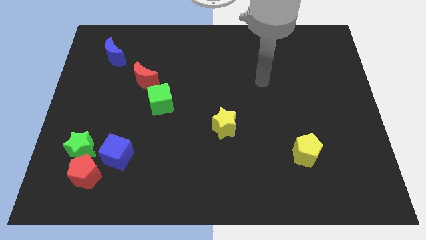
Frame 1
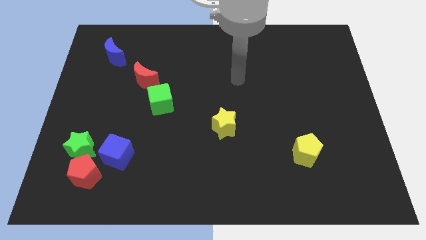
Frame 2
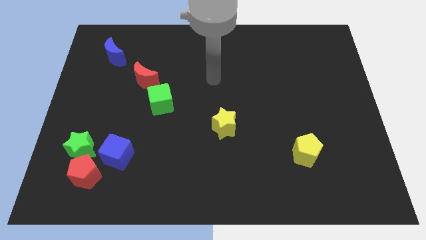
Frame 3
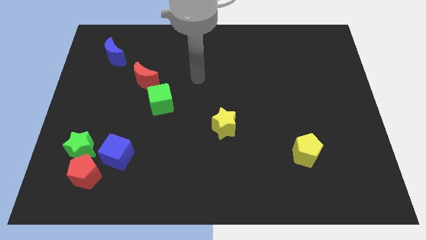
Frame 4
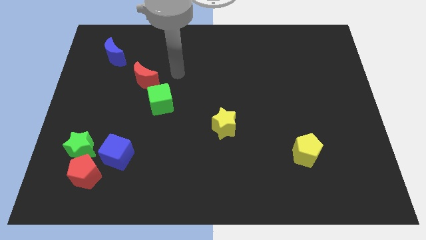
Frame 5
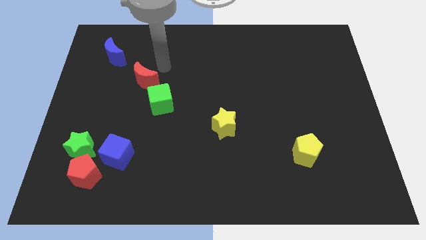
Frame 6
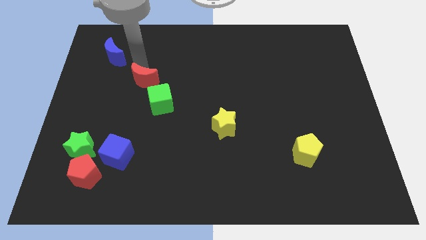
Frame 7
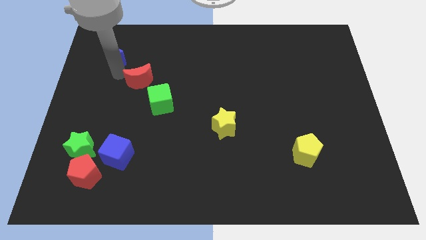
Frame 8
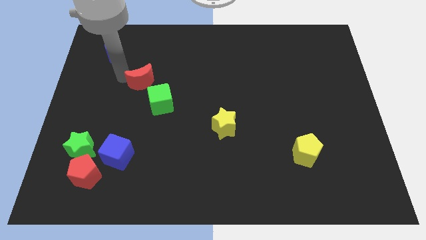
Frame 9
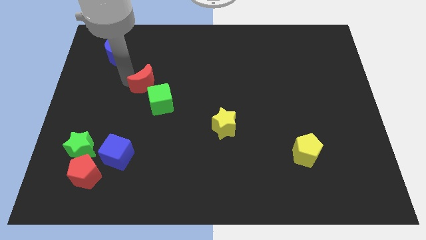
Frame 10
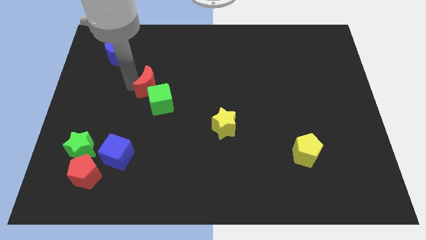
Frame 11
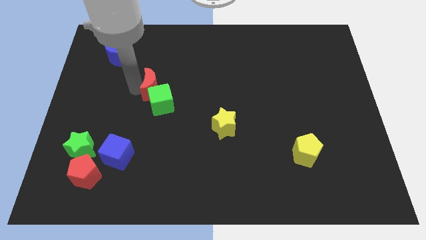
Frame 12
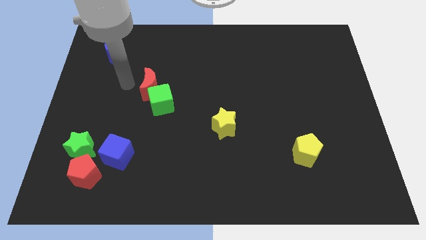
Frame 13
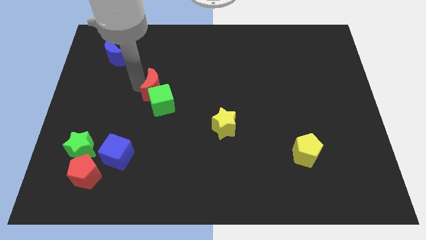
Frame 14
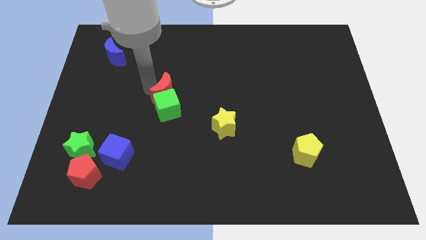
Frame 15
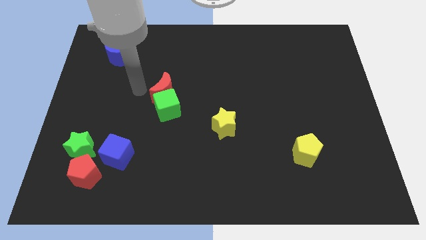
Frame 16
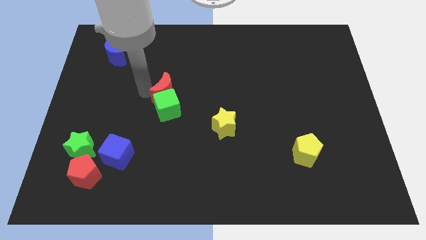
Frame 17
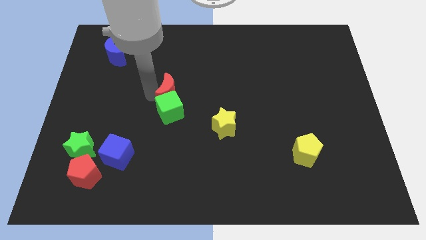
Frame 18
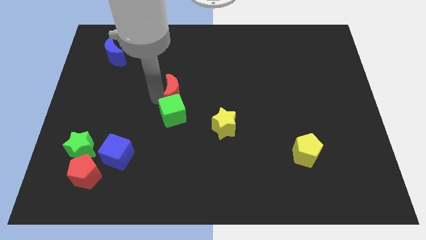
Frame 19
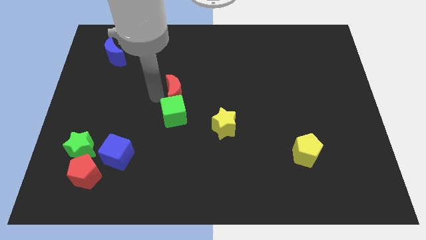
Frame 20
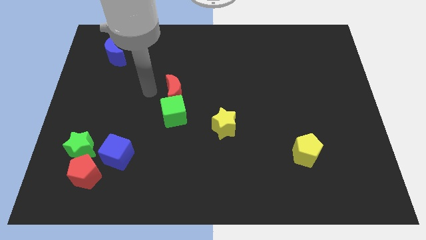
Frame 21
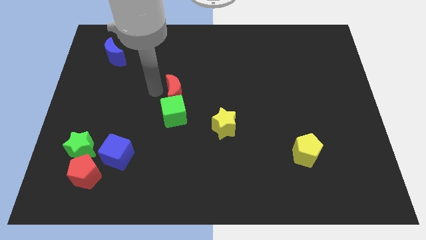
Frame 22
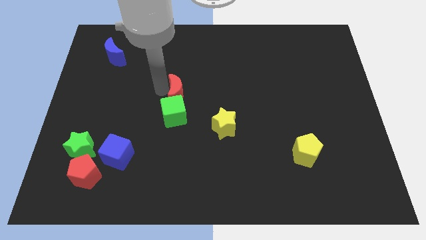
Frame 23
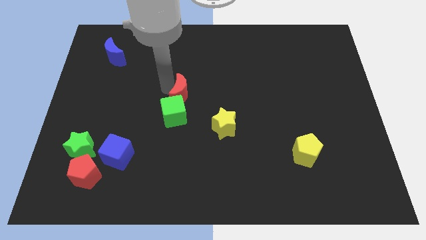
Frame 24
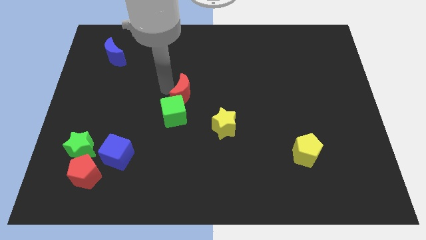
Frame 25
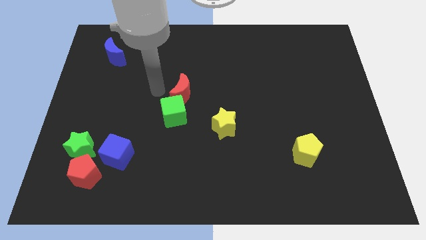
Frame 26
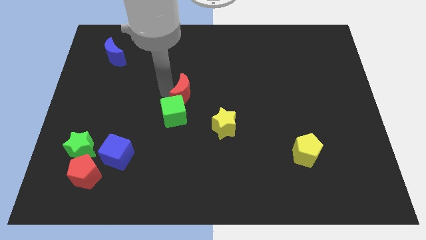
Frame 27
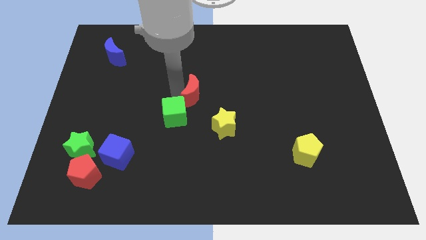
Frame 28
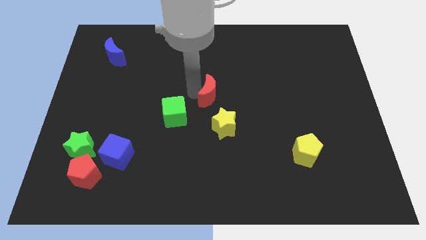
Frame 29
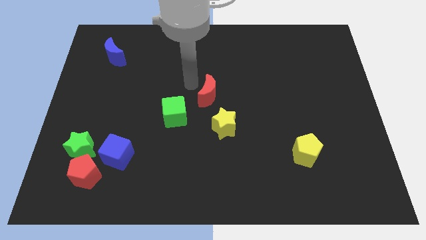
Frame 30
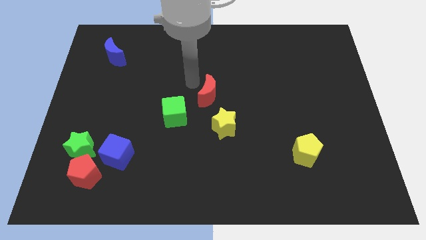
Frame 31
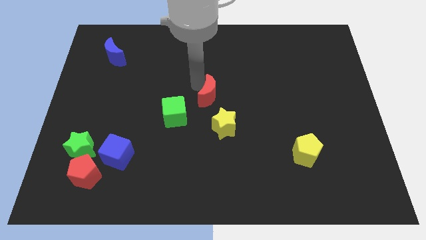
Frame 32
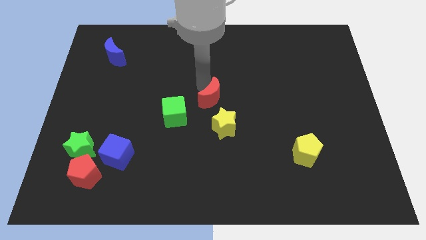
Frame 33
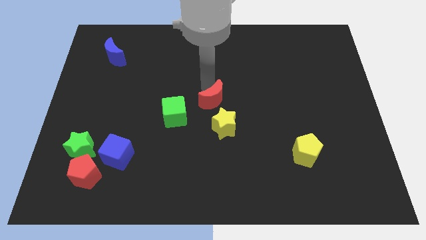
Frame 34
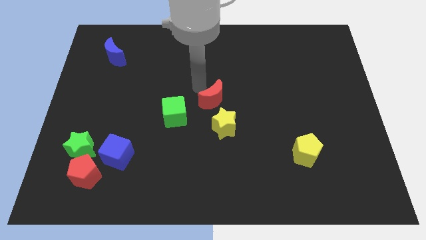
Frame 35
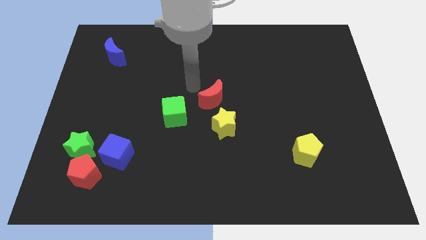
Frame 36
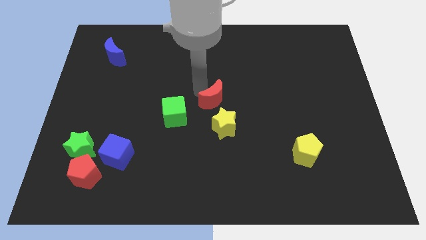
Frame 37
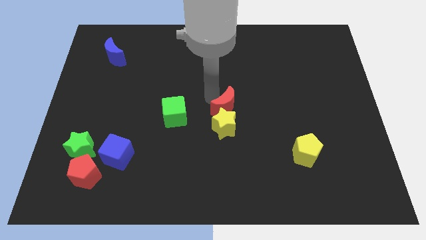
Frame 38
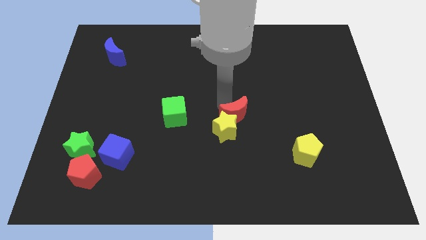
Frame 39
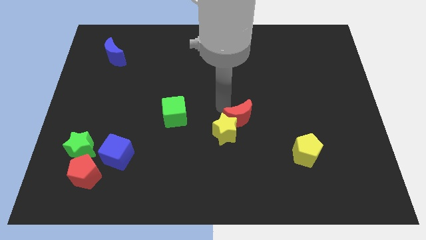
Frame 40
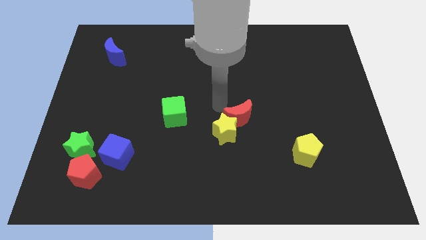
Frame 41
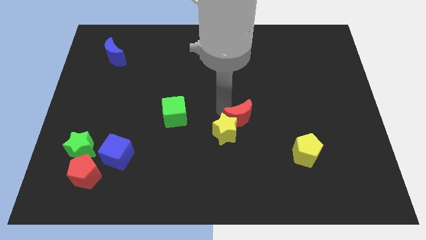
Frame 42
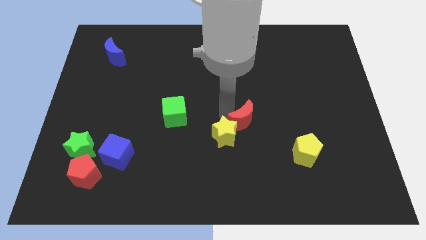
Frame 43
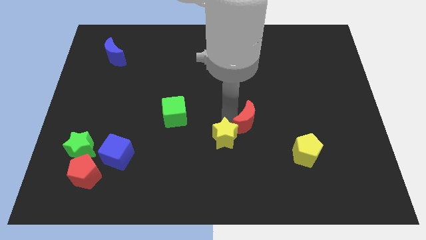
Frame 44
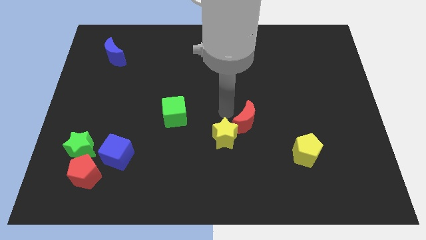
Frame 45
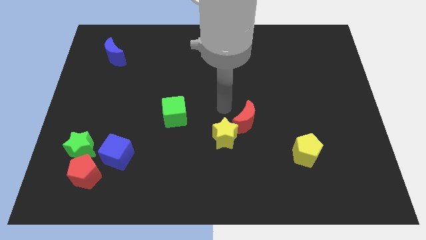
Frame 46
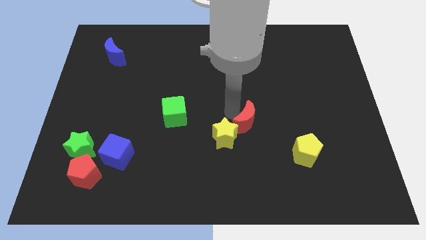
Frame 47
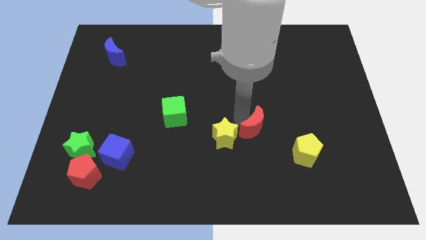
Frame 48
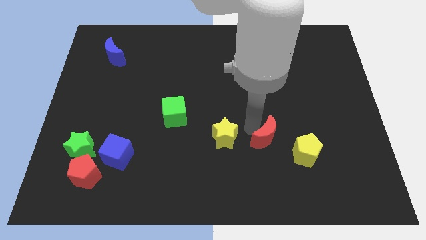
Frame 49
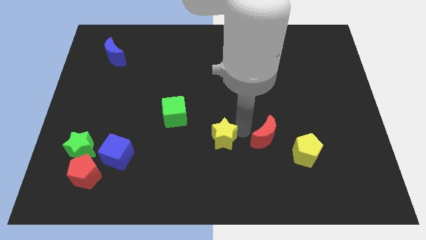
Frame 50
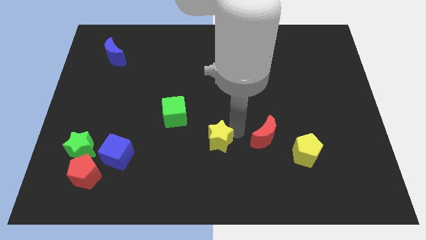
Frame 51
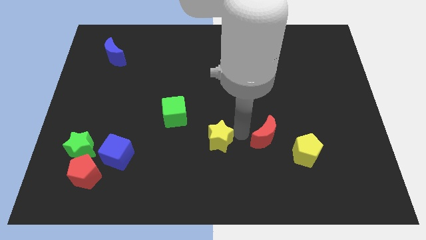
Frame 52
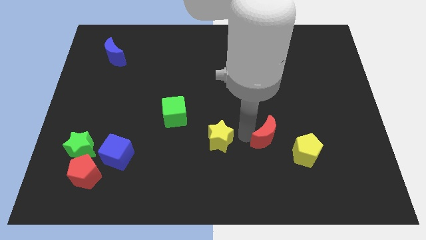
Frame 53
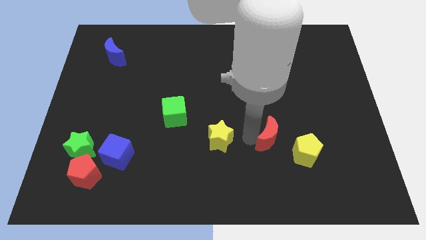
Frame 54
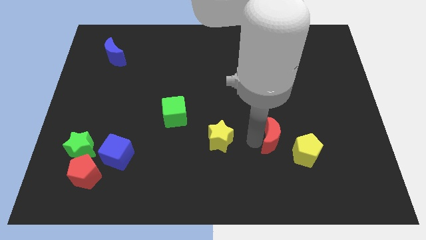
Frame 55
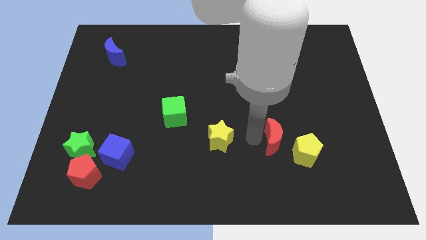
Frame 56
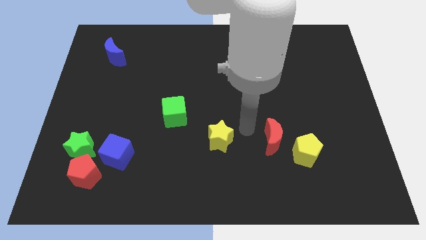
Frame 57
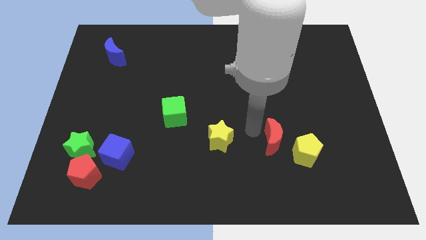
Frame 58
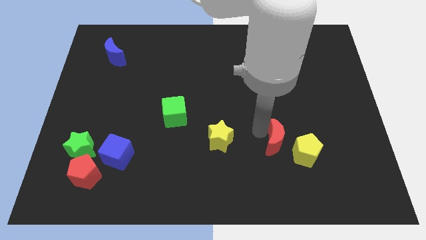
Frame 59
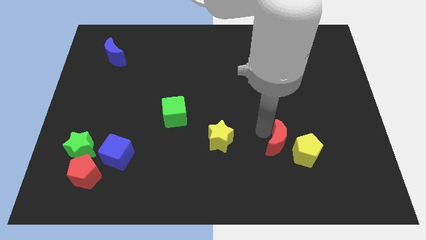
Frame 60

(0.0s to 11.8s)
slide the red moon close to the yellow pentagon
